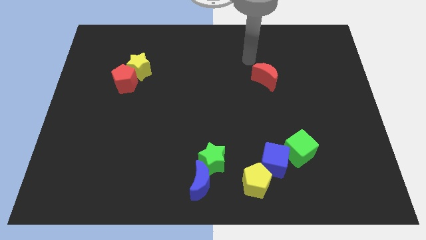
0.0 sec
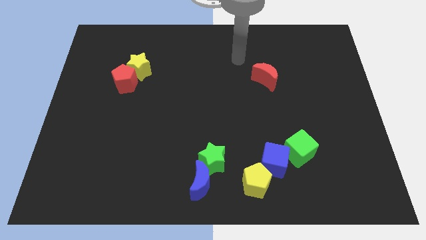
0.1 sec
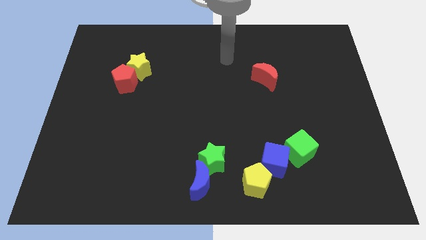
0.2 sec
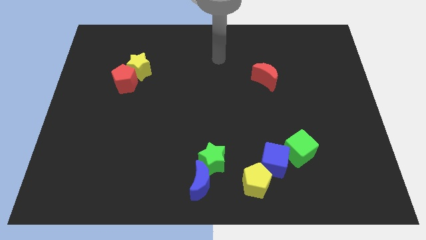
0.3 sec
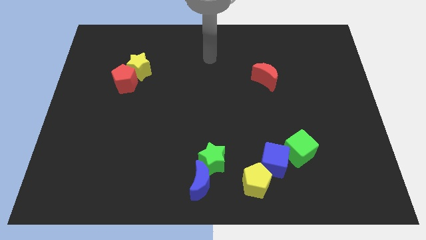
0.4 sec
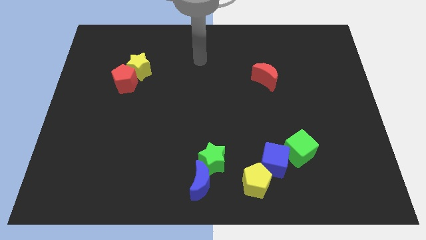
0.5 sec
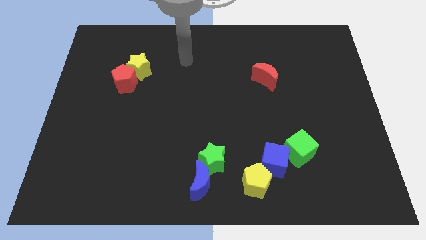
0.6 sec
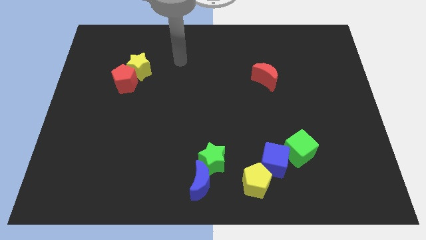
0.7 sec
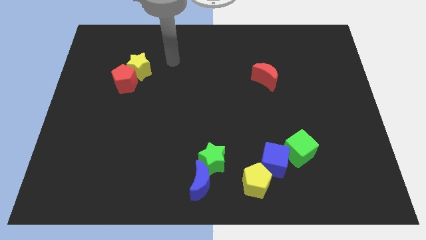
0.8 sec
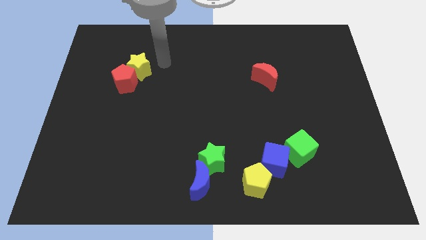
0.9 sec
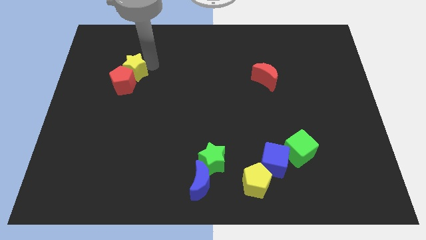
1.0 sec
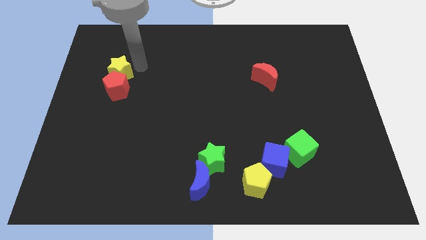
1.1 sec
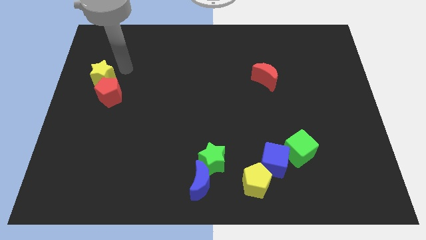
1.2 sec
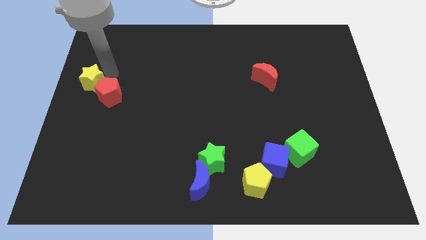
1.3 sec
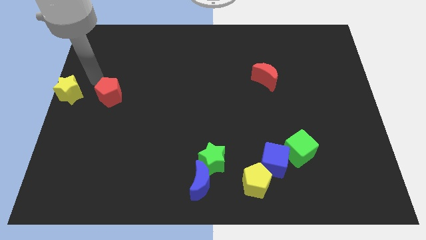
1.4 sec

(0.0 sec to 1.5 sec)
pull the red pentagon apart from the yellow star

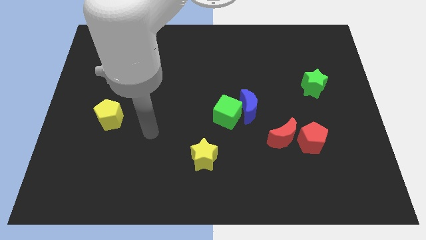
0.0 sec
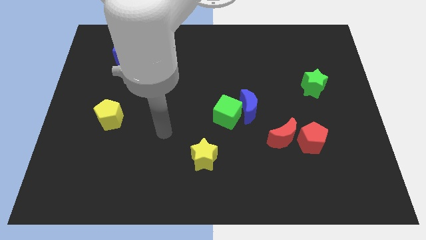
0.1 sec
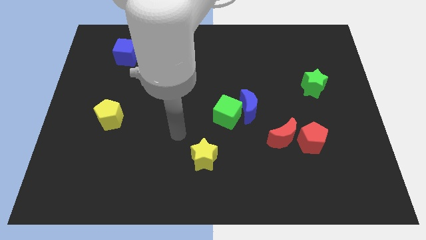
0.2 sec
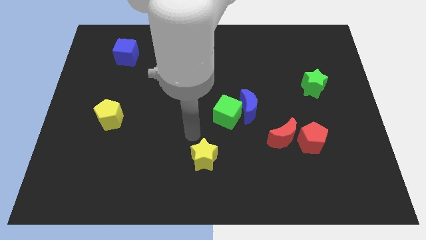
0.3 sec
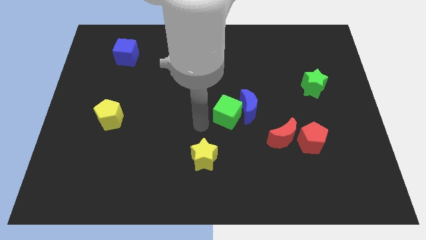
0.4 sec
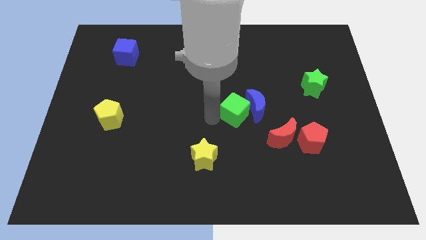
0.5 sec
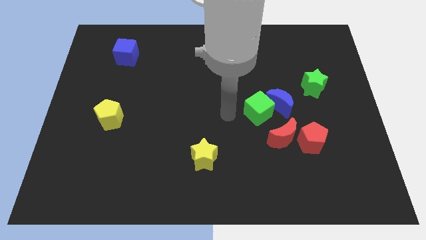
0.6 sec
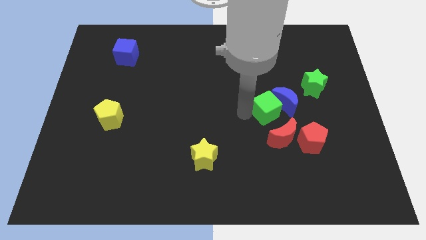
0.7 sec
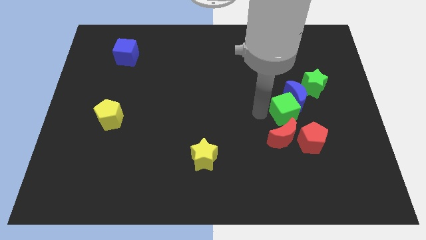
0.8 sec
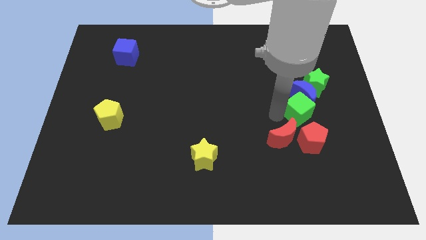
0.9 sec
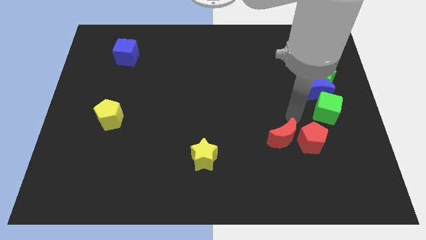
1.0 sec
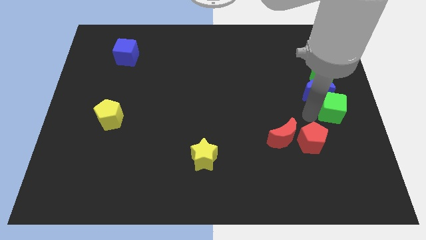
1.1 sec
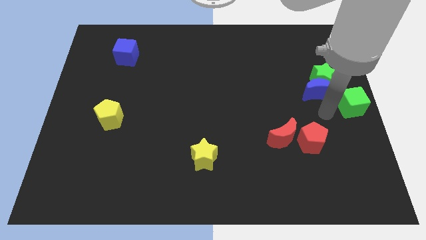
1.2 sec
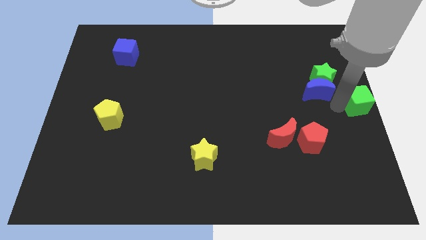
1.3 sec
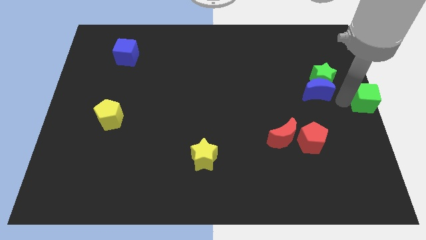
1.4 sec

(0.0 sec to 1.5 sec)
pull the blue moon apart from the green cube

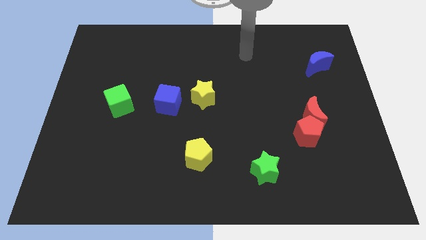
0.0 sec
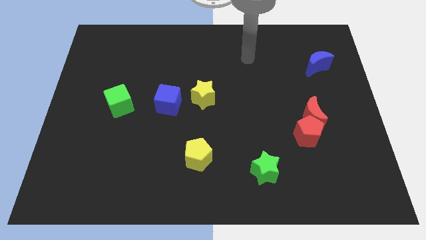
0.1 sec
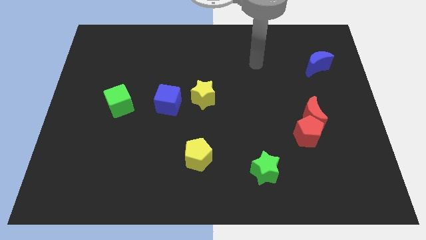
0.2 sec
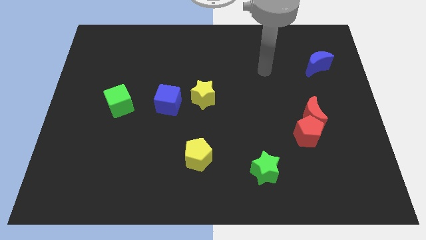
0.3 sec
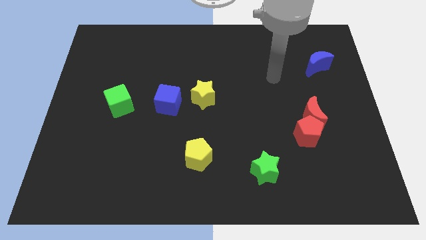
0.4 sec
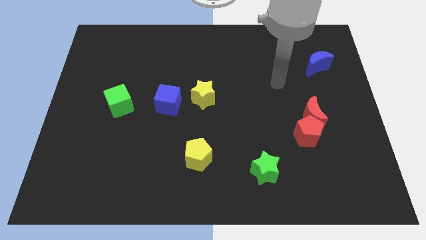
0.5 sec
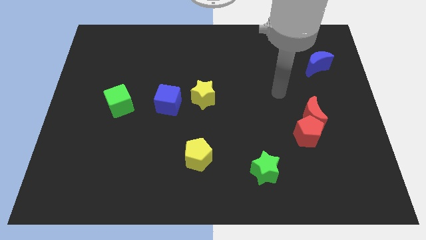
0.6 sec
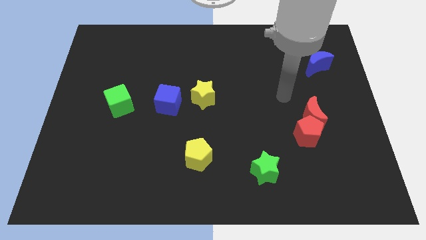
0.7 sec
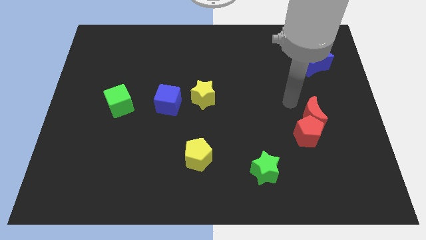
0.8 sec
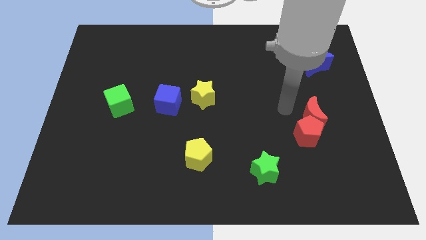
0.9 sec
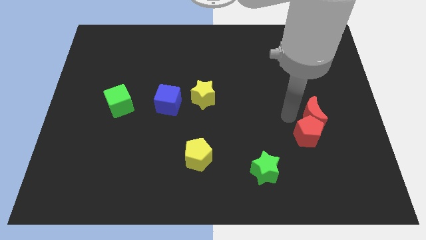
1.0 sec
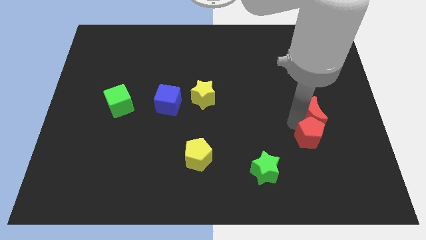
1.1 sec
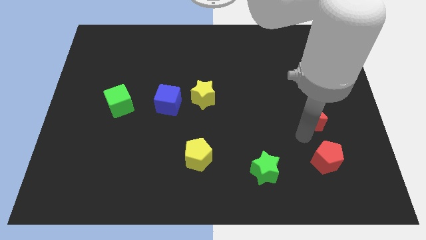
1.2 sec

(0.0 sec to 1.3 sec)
separate the red moon from the red pentagon

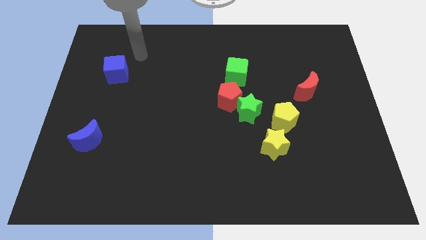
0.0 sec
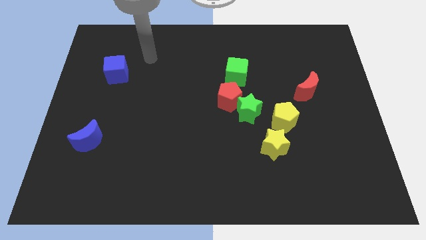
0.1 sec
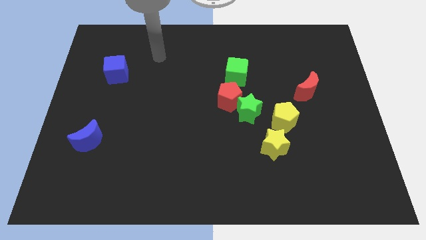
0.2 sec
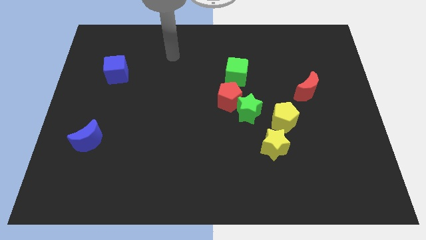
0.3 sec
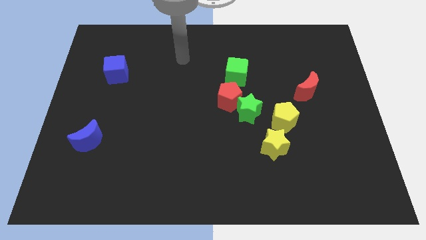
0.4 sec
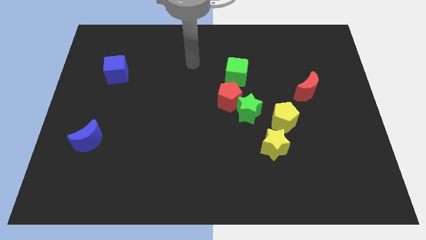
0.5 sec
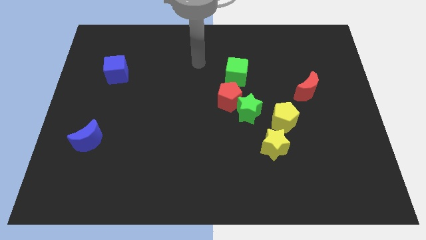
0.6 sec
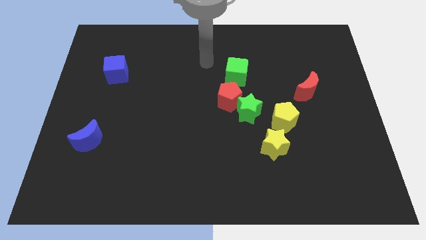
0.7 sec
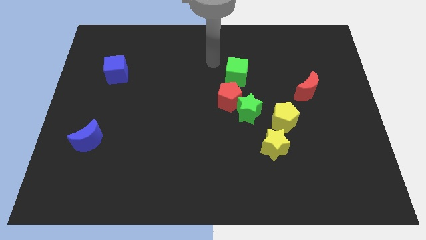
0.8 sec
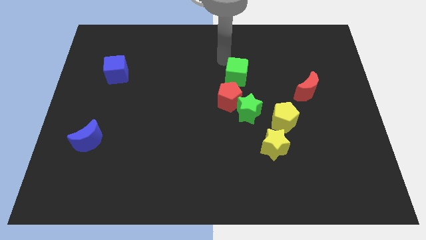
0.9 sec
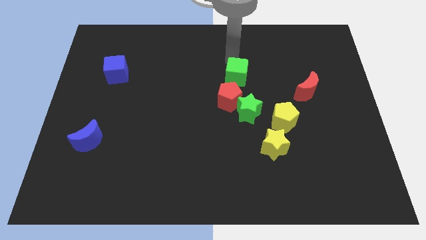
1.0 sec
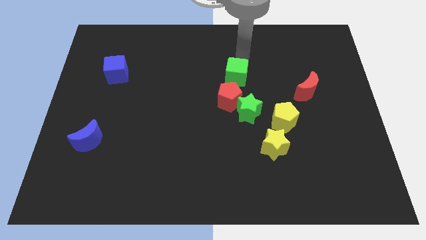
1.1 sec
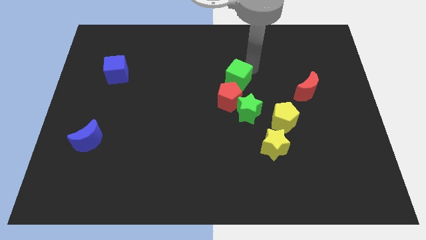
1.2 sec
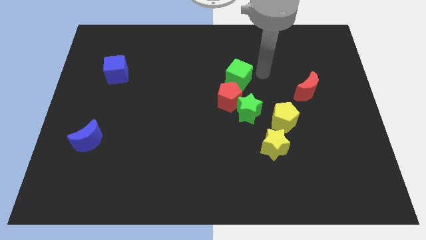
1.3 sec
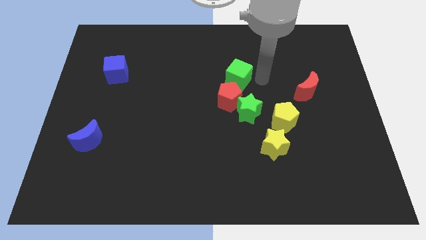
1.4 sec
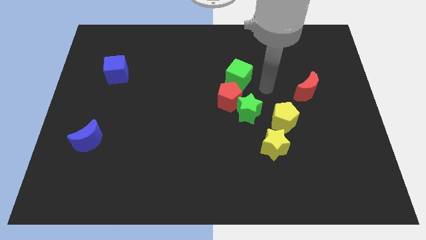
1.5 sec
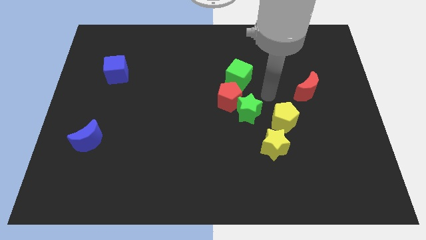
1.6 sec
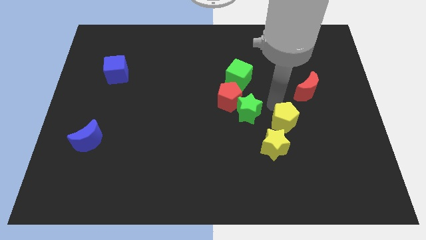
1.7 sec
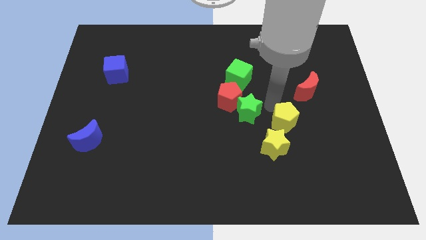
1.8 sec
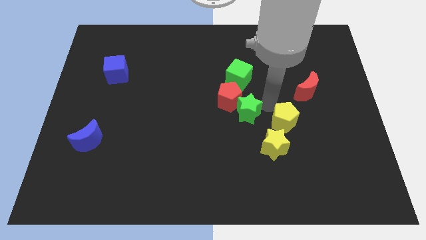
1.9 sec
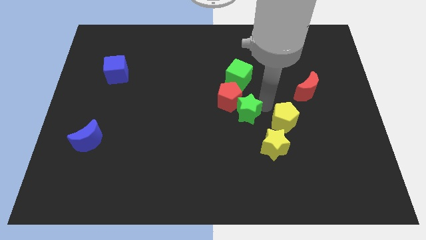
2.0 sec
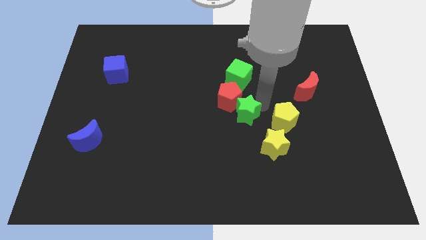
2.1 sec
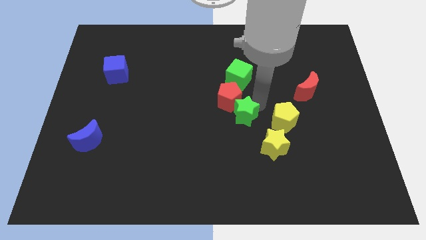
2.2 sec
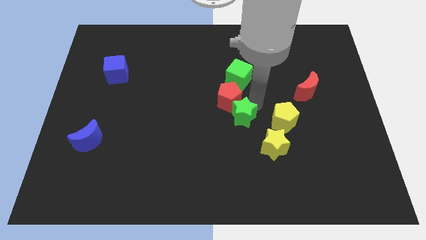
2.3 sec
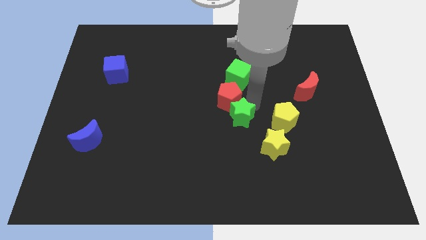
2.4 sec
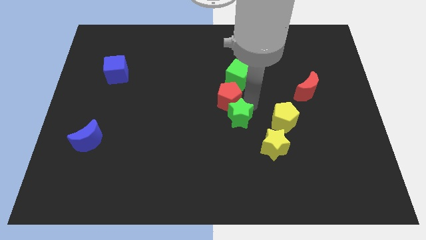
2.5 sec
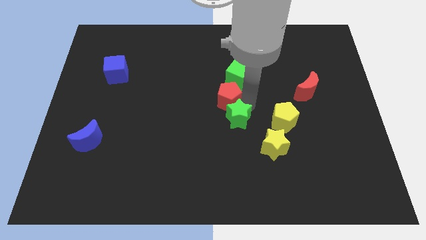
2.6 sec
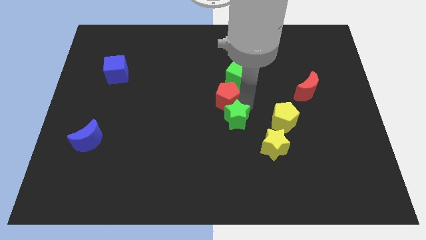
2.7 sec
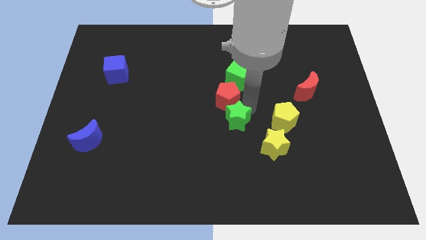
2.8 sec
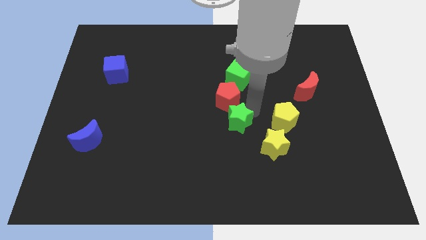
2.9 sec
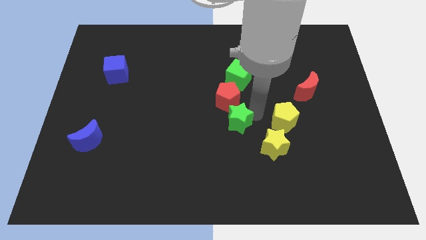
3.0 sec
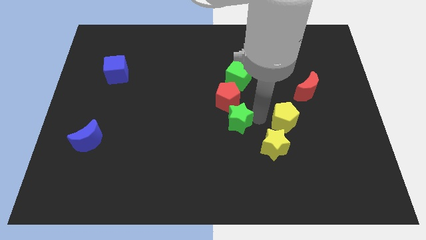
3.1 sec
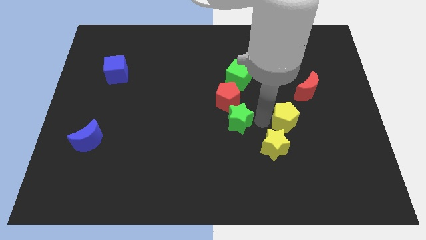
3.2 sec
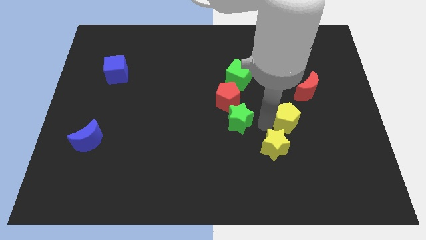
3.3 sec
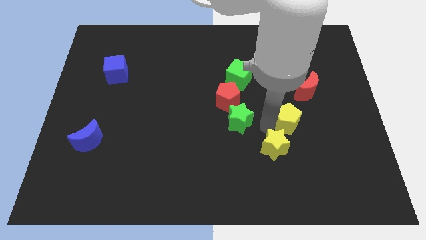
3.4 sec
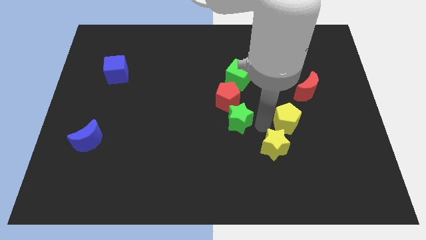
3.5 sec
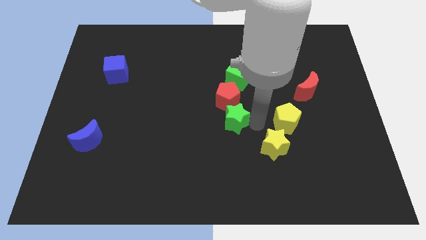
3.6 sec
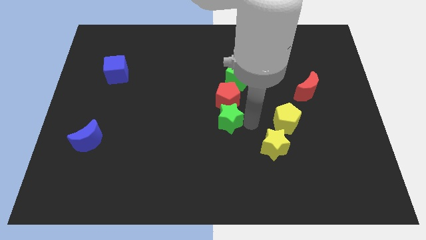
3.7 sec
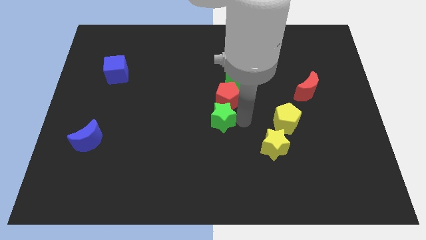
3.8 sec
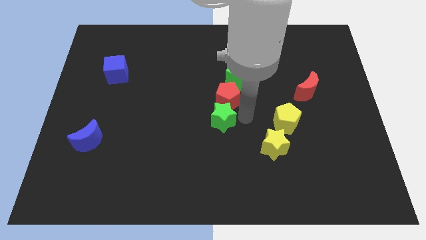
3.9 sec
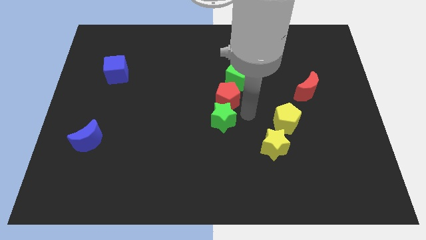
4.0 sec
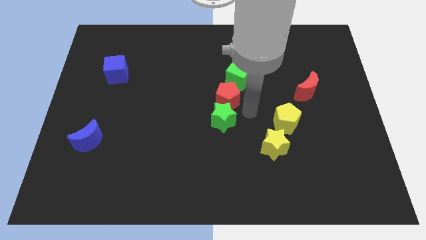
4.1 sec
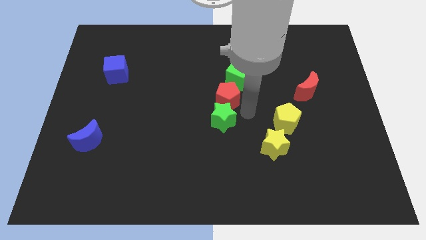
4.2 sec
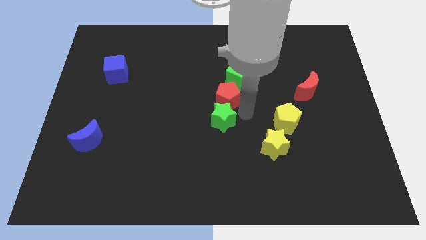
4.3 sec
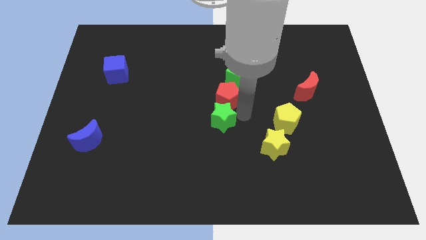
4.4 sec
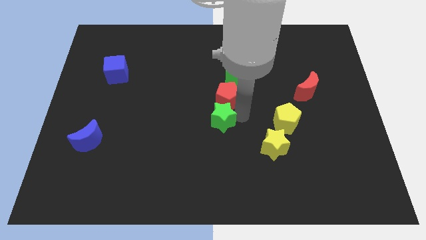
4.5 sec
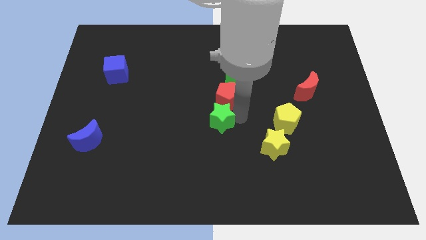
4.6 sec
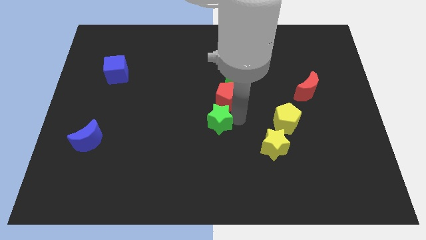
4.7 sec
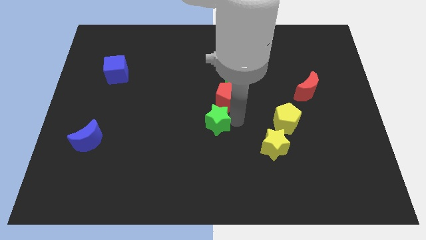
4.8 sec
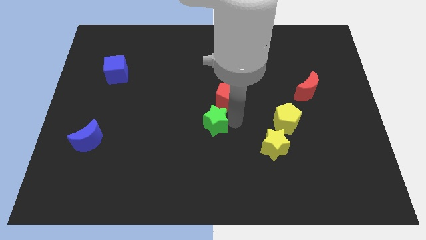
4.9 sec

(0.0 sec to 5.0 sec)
pull the green star apart from the red pentagon and yellow pentagon
